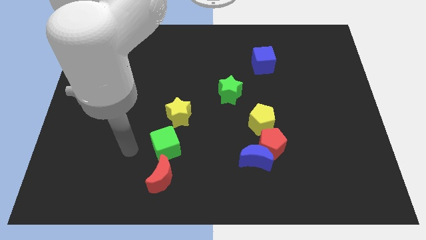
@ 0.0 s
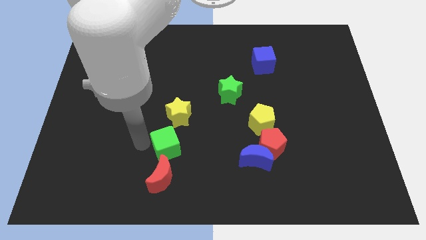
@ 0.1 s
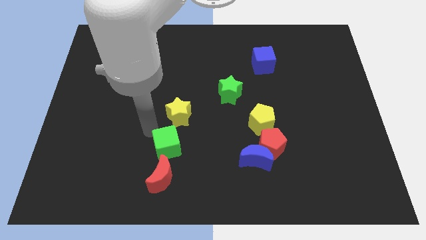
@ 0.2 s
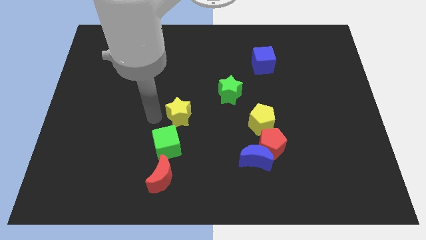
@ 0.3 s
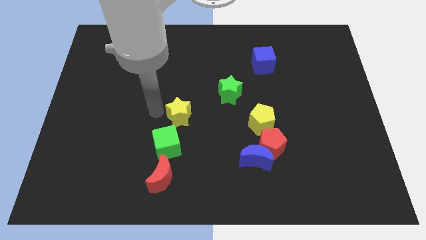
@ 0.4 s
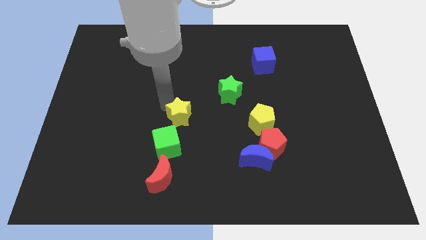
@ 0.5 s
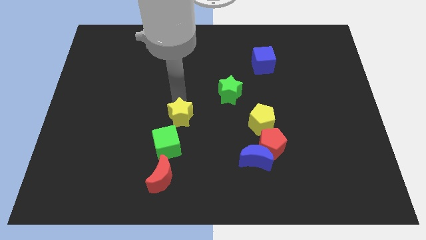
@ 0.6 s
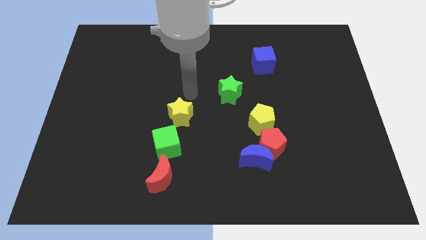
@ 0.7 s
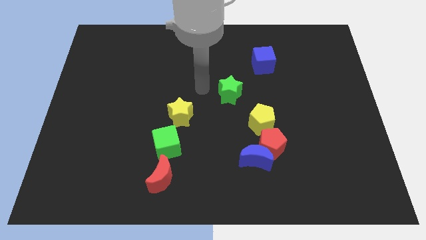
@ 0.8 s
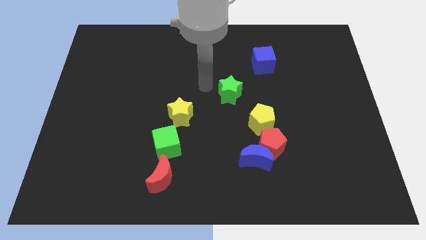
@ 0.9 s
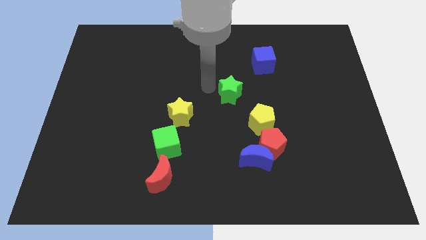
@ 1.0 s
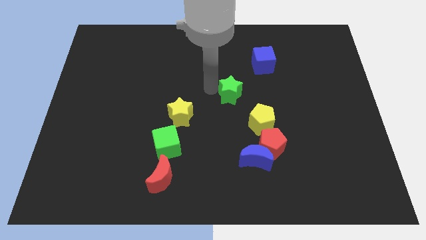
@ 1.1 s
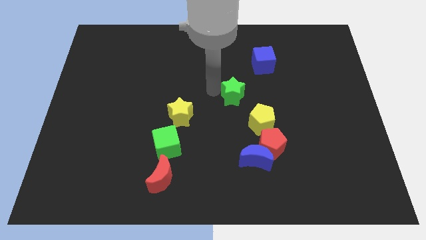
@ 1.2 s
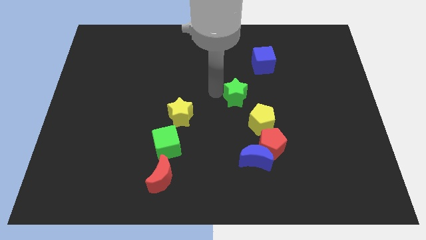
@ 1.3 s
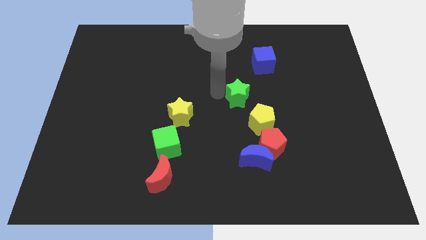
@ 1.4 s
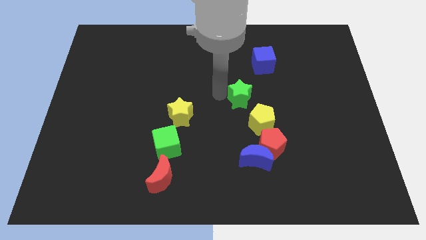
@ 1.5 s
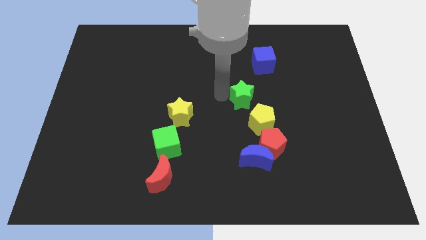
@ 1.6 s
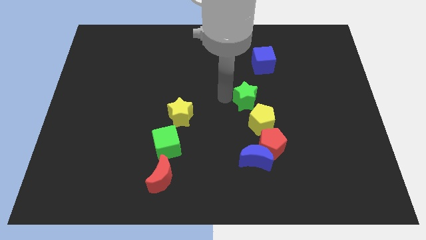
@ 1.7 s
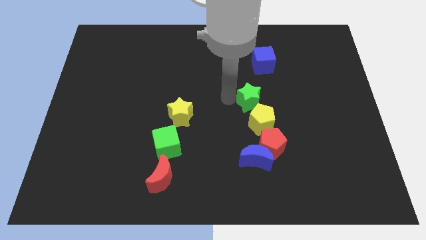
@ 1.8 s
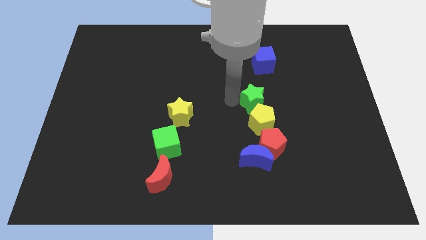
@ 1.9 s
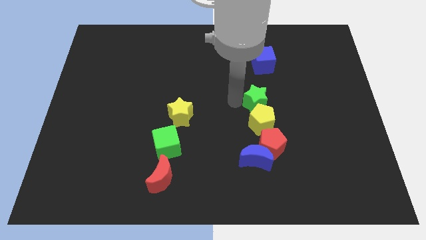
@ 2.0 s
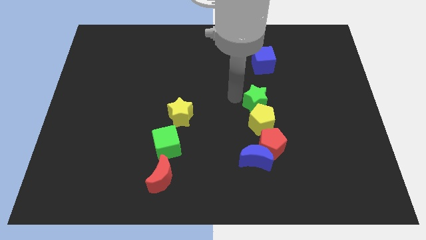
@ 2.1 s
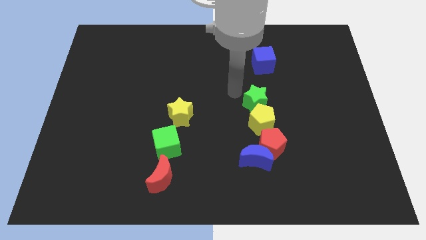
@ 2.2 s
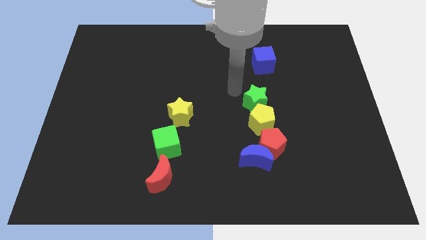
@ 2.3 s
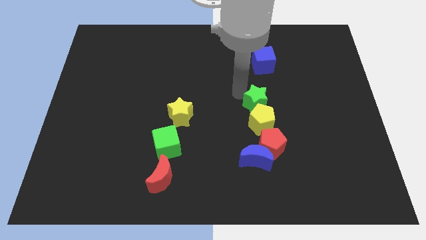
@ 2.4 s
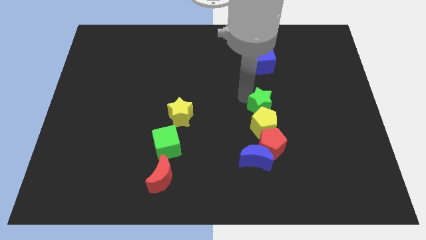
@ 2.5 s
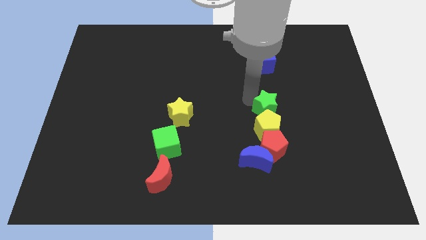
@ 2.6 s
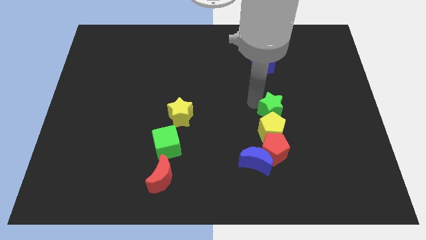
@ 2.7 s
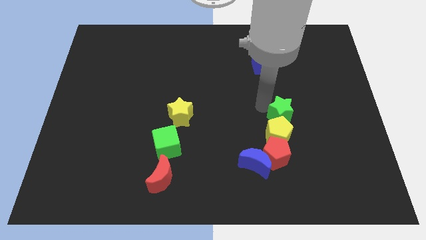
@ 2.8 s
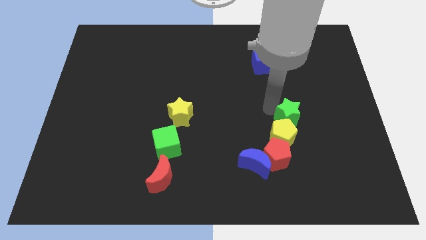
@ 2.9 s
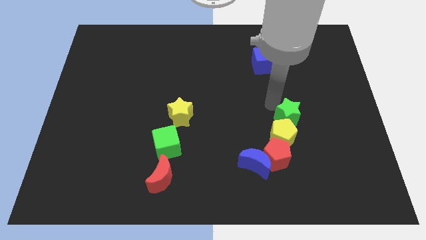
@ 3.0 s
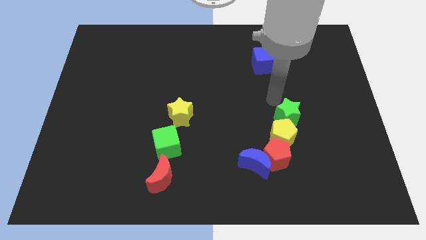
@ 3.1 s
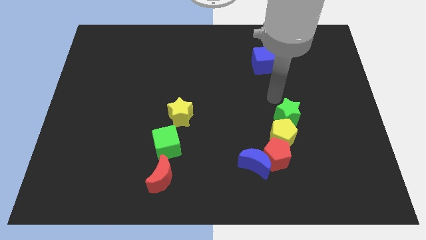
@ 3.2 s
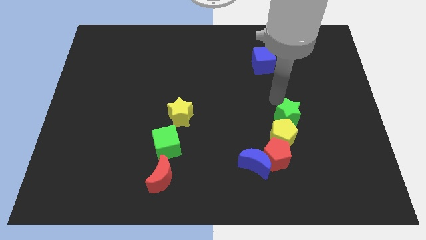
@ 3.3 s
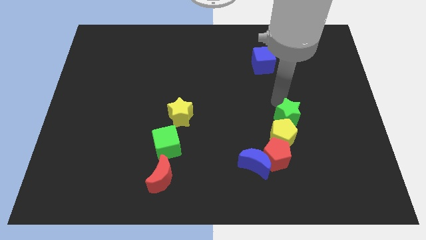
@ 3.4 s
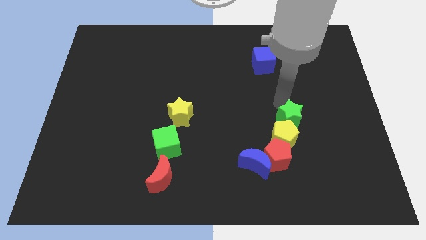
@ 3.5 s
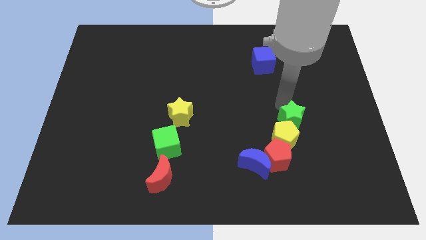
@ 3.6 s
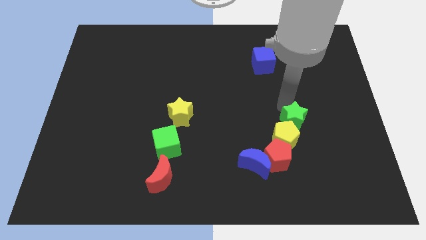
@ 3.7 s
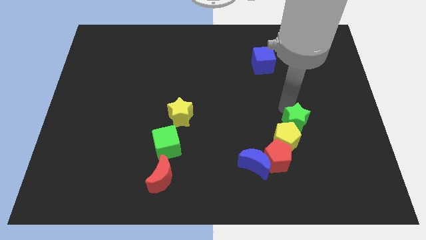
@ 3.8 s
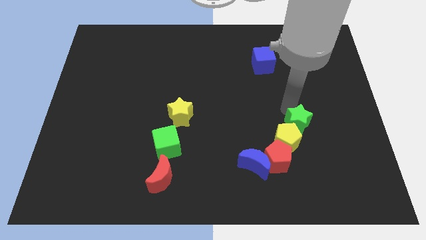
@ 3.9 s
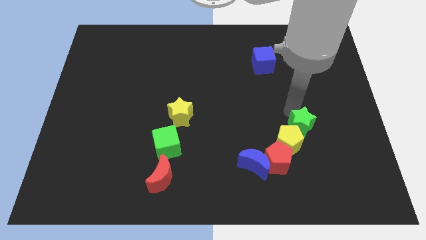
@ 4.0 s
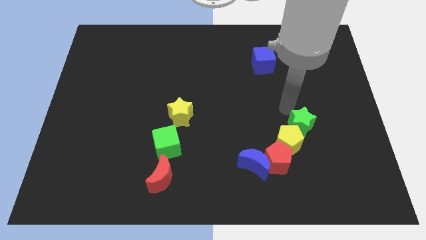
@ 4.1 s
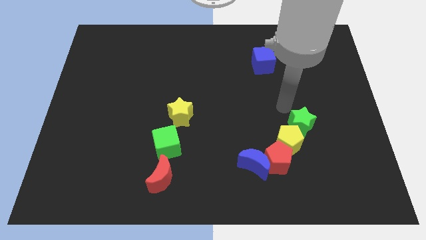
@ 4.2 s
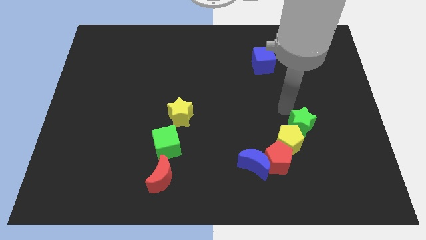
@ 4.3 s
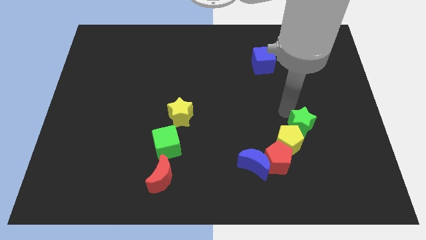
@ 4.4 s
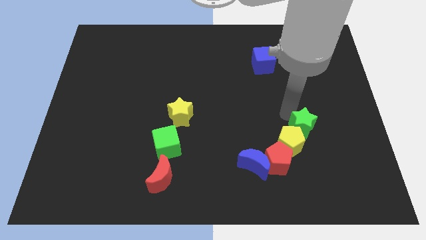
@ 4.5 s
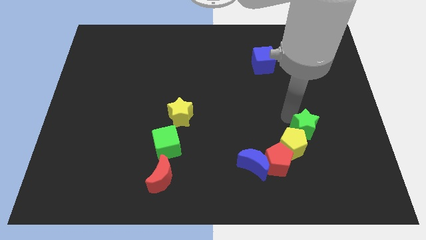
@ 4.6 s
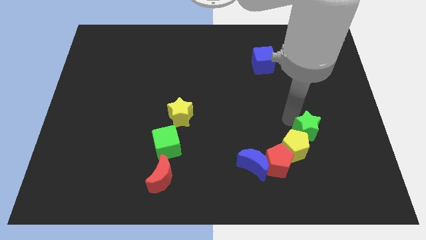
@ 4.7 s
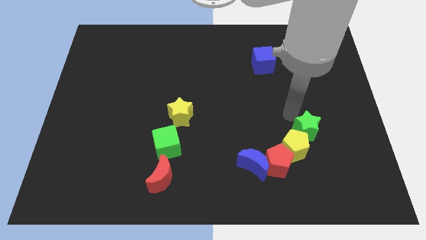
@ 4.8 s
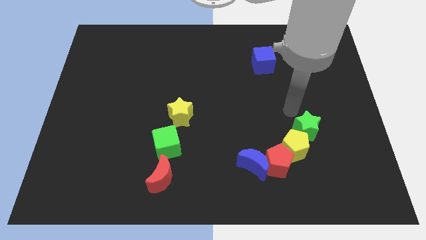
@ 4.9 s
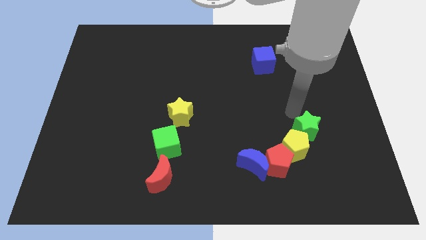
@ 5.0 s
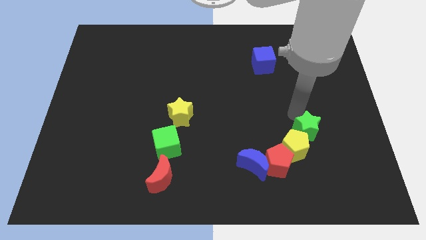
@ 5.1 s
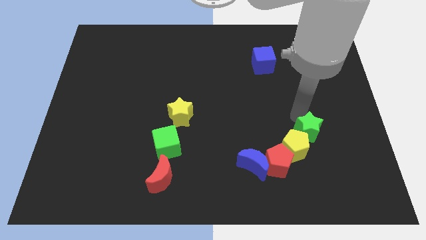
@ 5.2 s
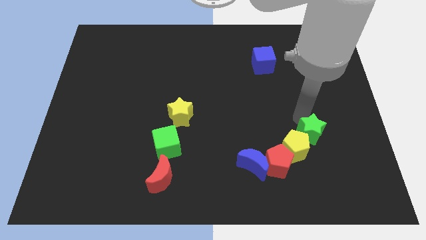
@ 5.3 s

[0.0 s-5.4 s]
slide the green star diagonally downwards and right

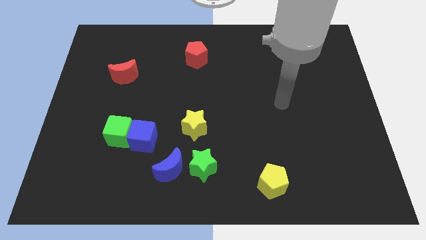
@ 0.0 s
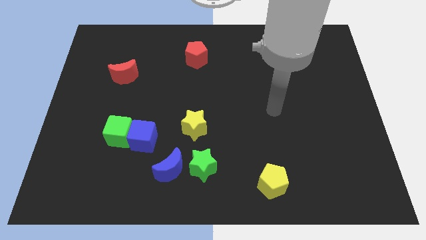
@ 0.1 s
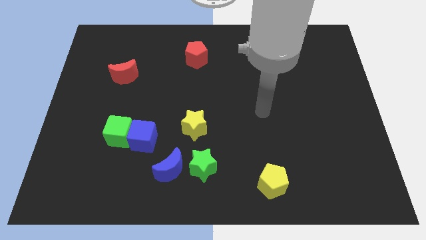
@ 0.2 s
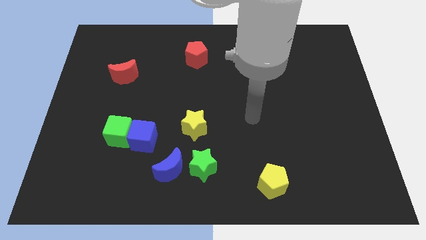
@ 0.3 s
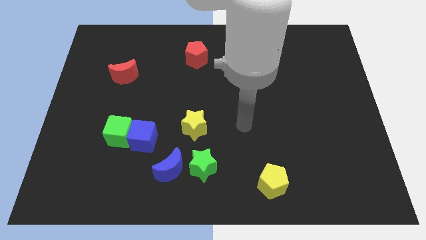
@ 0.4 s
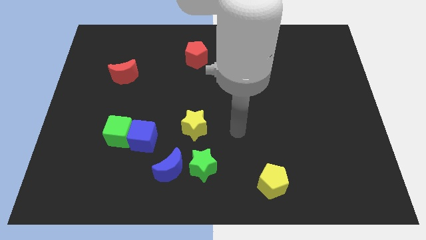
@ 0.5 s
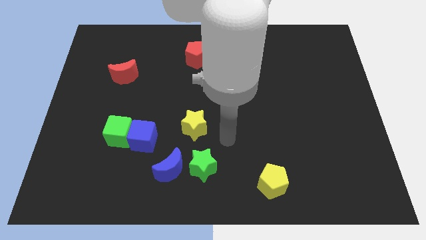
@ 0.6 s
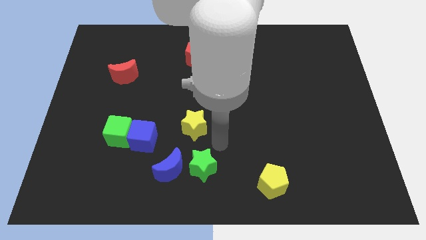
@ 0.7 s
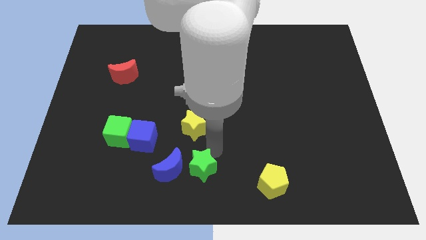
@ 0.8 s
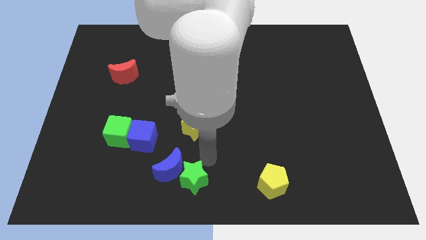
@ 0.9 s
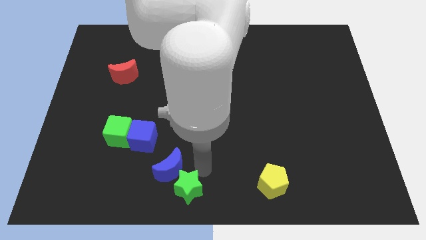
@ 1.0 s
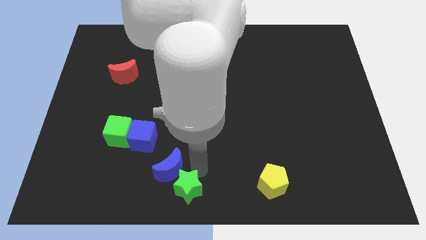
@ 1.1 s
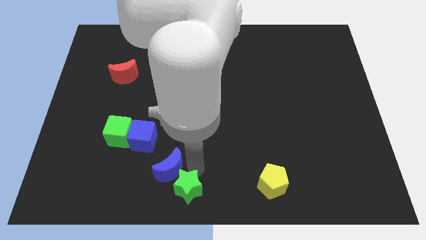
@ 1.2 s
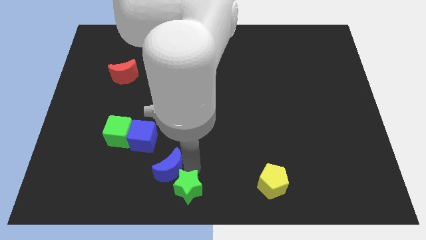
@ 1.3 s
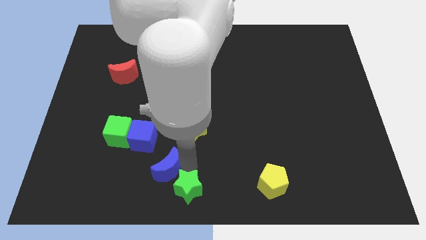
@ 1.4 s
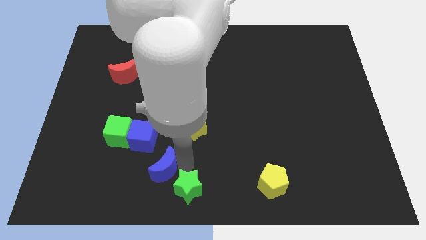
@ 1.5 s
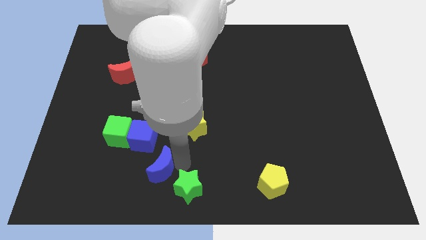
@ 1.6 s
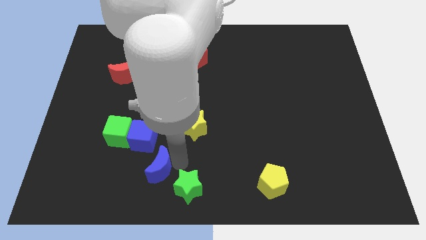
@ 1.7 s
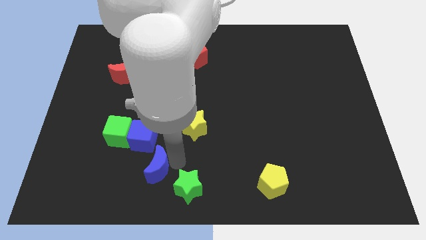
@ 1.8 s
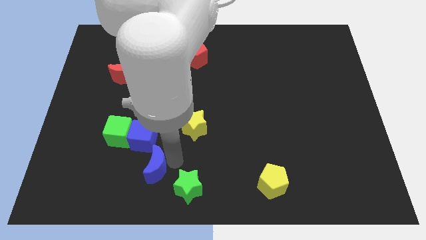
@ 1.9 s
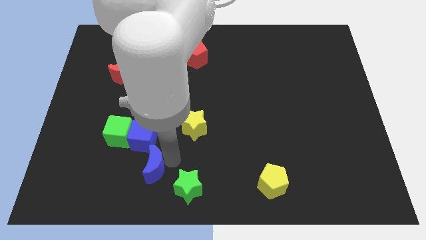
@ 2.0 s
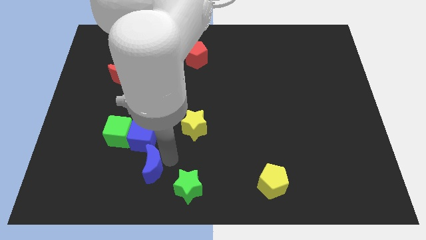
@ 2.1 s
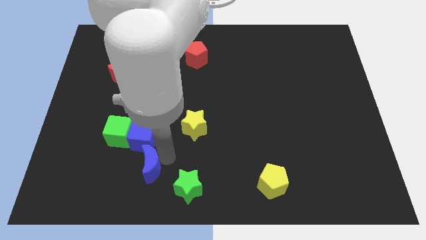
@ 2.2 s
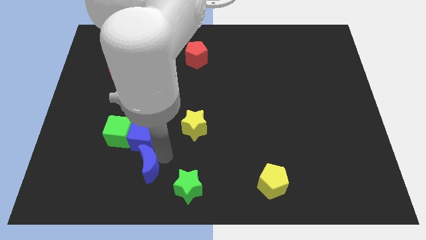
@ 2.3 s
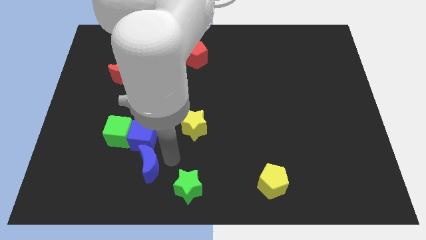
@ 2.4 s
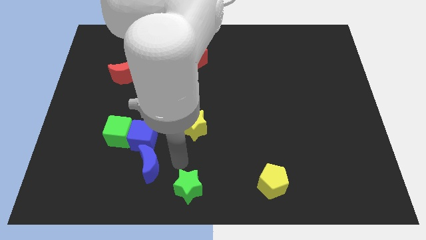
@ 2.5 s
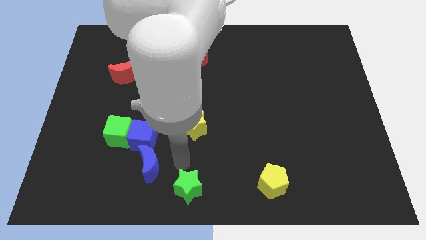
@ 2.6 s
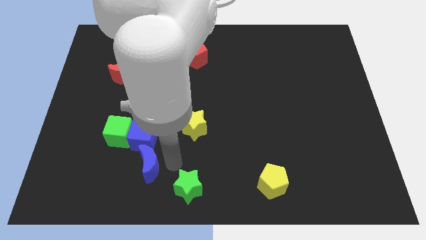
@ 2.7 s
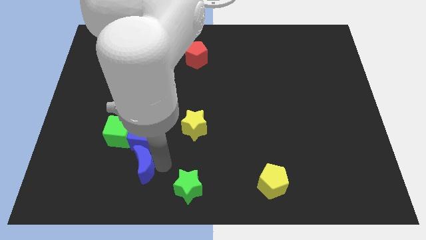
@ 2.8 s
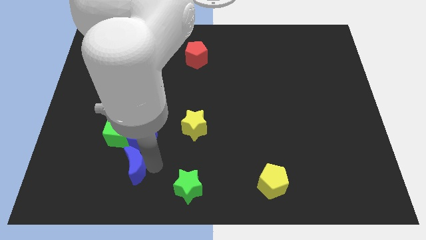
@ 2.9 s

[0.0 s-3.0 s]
push the blue moon left a little bit
